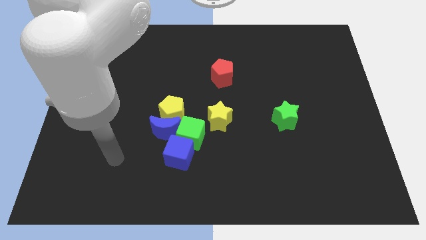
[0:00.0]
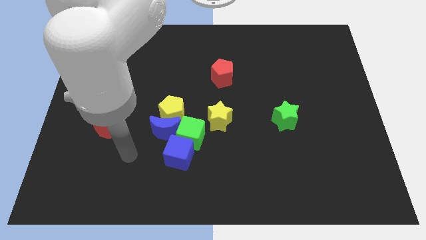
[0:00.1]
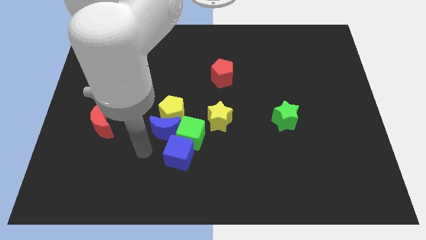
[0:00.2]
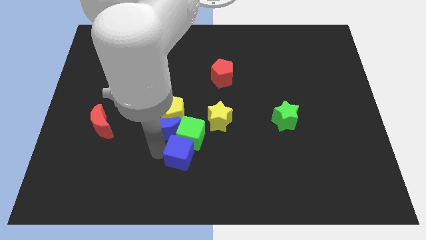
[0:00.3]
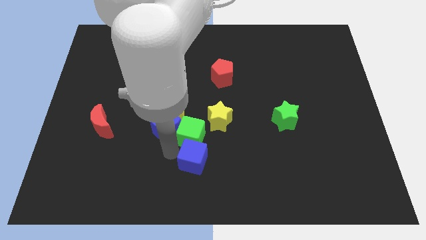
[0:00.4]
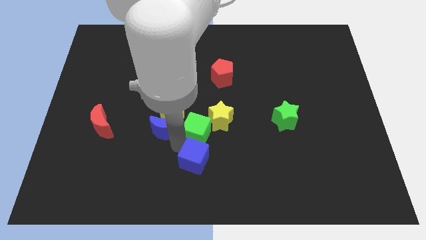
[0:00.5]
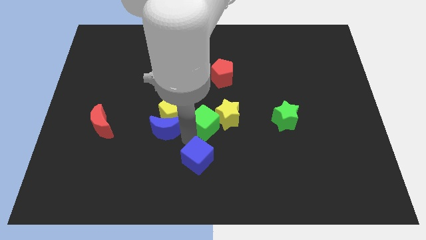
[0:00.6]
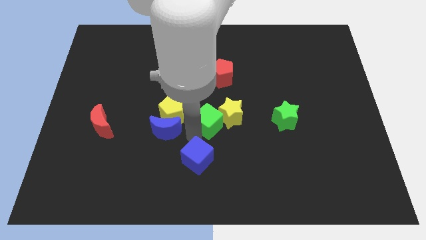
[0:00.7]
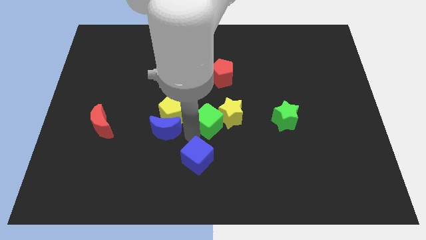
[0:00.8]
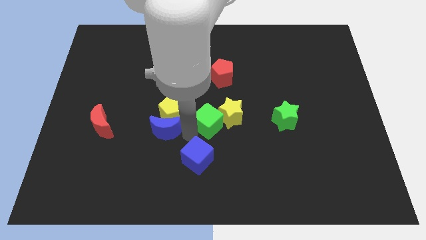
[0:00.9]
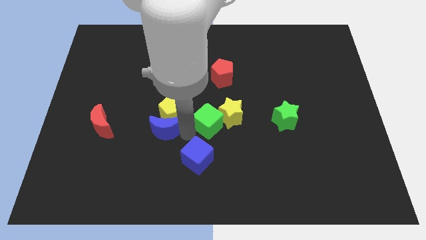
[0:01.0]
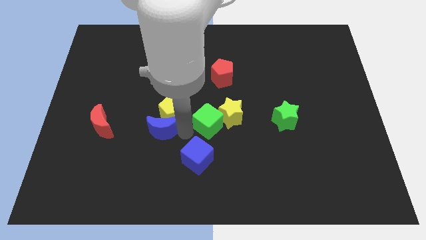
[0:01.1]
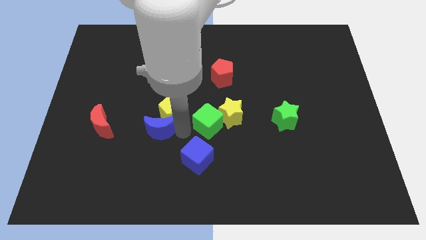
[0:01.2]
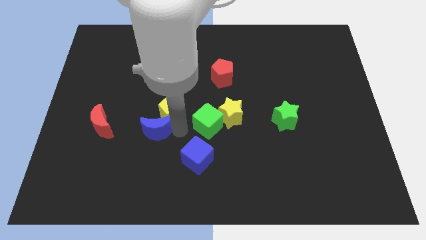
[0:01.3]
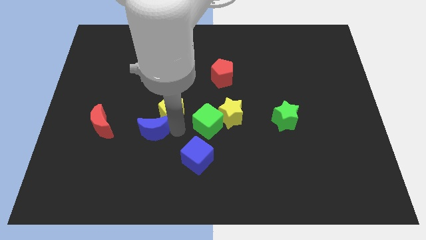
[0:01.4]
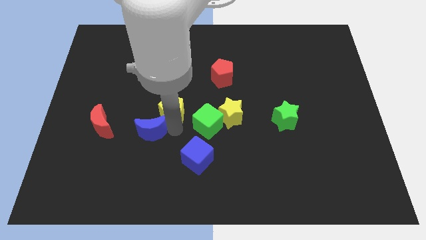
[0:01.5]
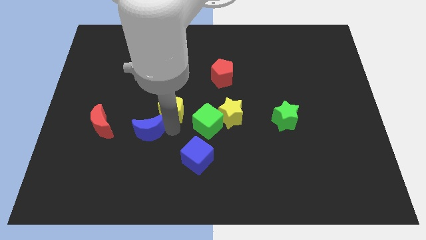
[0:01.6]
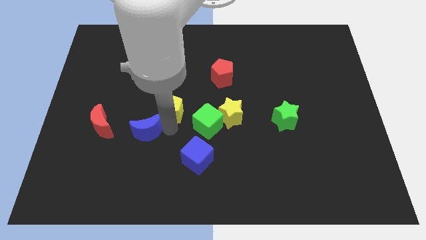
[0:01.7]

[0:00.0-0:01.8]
pull the blue moon apart from the clump

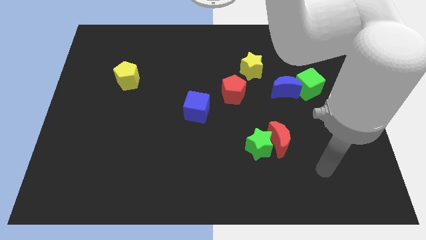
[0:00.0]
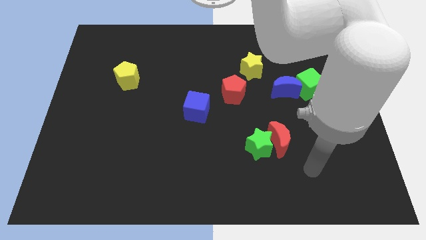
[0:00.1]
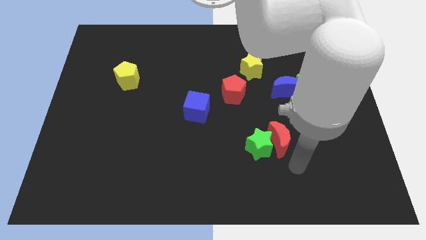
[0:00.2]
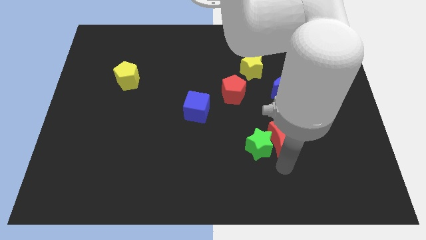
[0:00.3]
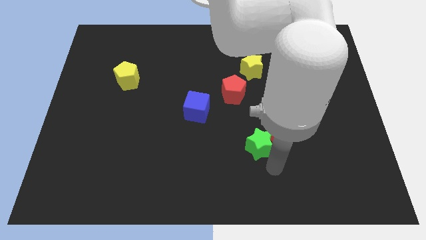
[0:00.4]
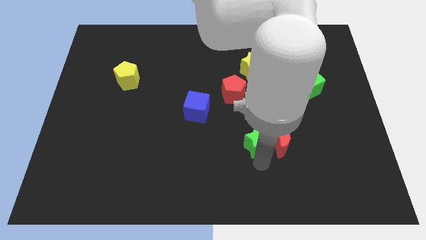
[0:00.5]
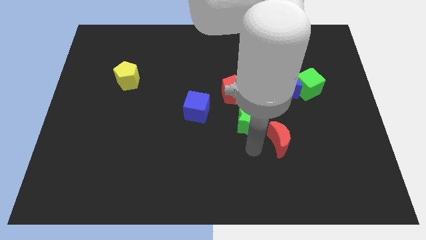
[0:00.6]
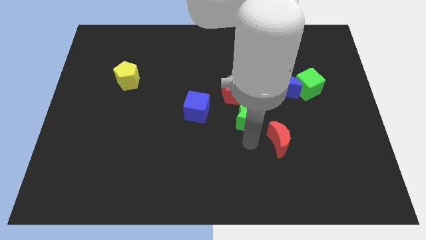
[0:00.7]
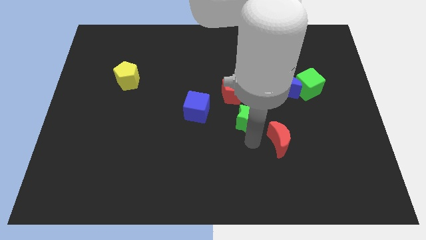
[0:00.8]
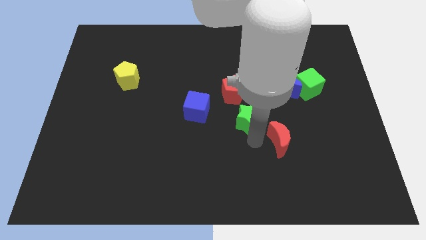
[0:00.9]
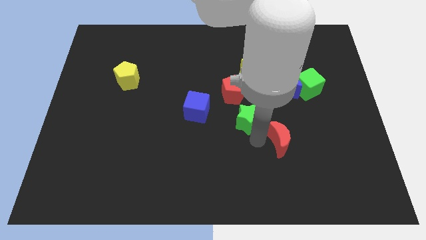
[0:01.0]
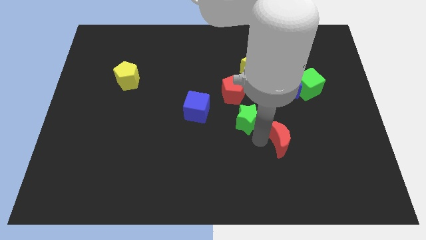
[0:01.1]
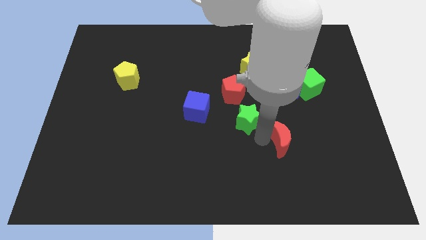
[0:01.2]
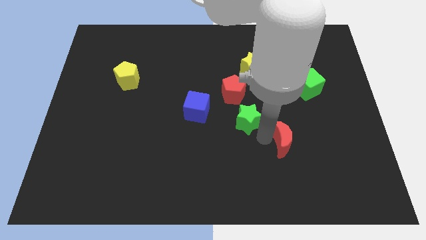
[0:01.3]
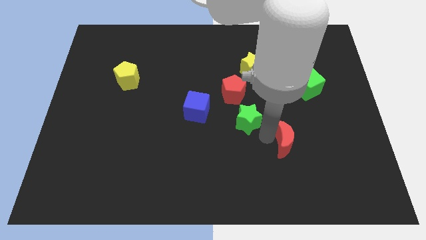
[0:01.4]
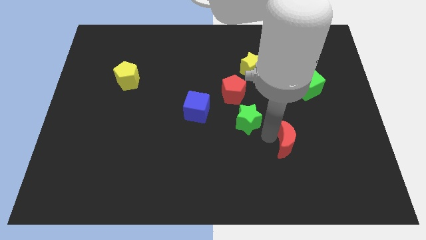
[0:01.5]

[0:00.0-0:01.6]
separate the red moon from the green star

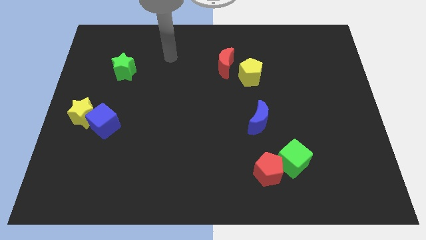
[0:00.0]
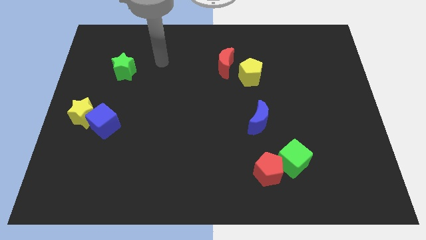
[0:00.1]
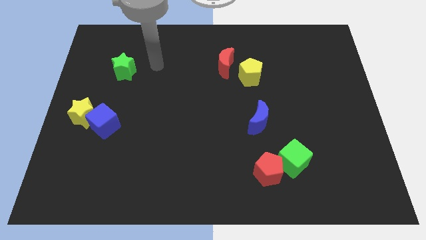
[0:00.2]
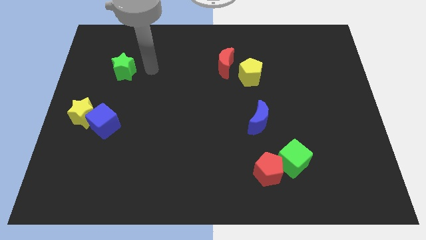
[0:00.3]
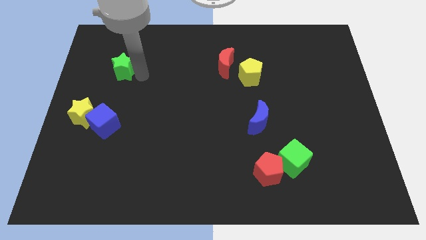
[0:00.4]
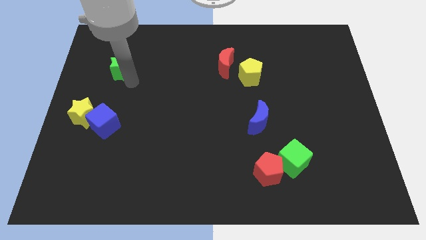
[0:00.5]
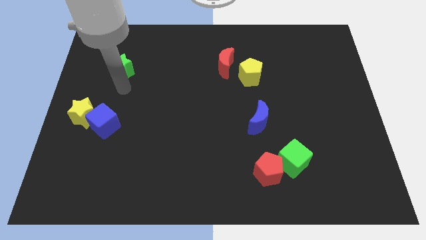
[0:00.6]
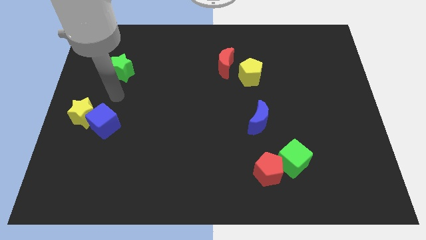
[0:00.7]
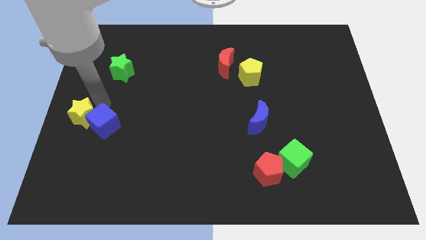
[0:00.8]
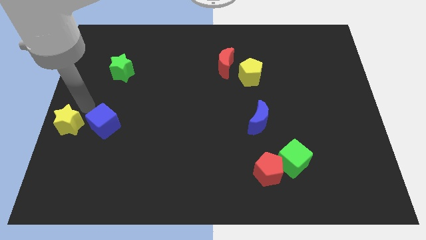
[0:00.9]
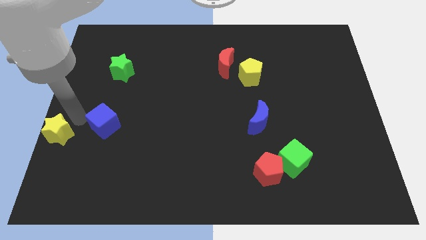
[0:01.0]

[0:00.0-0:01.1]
move the blue cube away from the yellow star

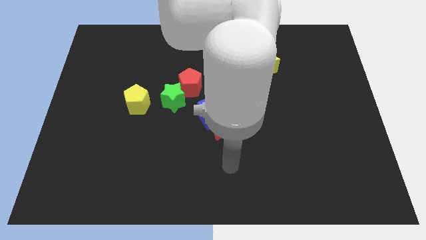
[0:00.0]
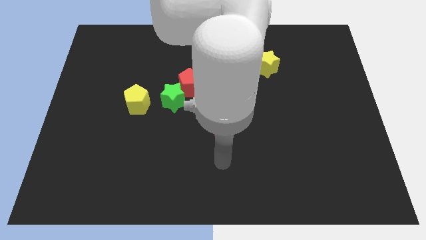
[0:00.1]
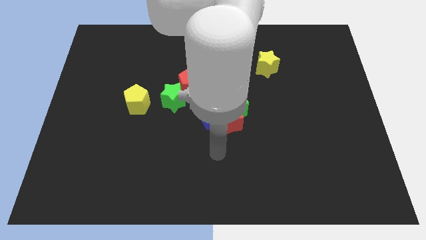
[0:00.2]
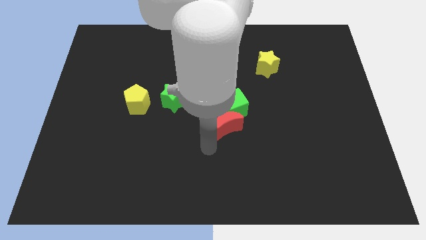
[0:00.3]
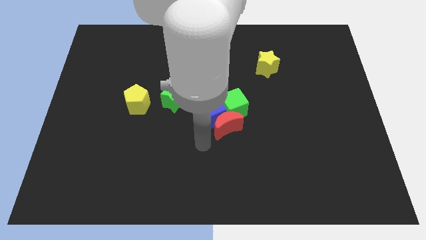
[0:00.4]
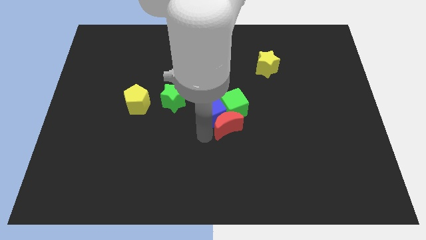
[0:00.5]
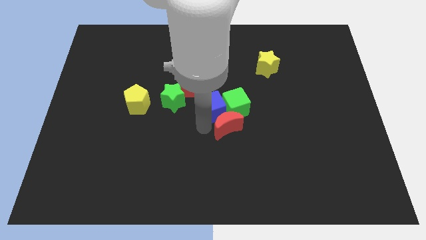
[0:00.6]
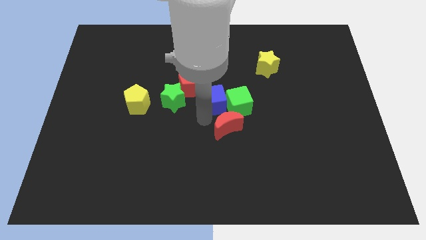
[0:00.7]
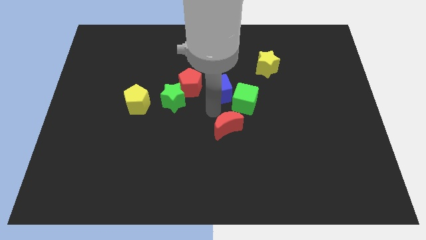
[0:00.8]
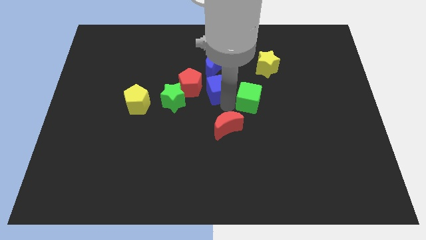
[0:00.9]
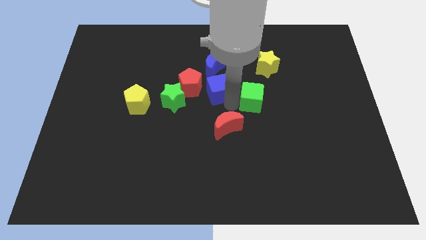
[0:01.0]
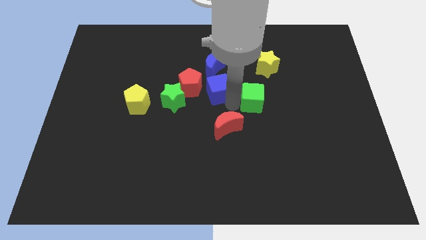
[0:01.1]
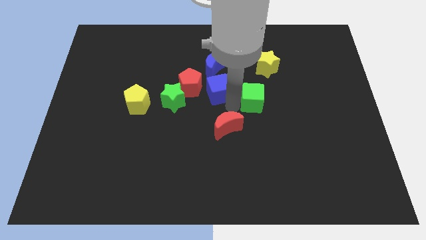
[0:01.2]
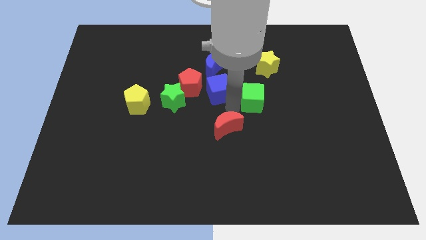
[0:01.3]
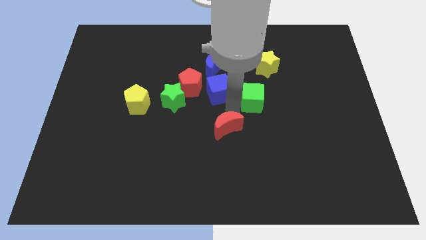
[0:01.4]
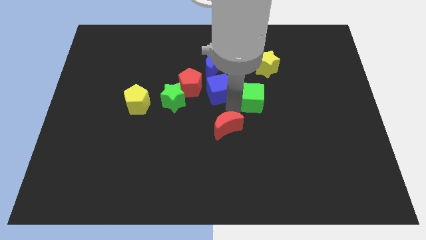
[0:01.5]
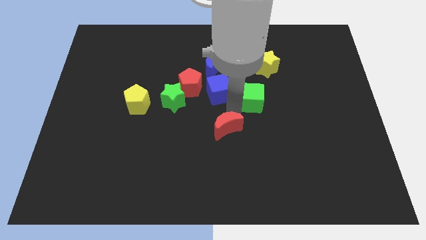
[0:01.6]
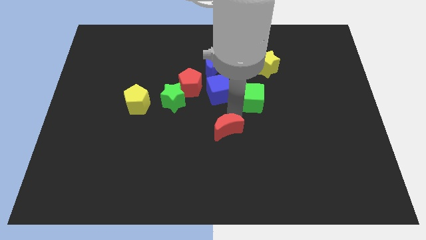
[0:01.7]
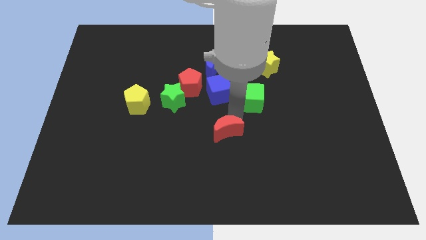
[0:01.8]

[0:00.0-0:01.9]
pull the red moon apart from the blue cube and green cube

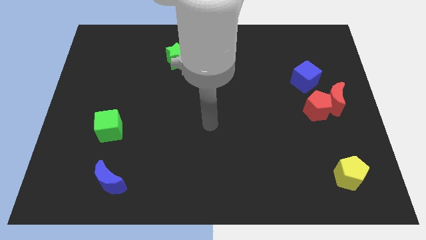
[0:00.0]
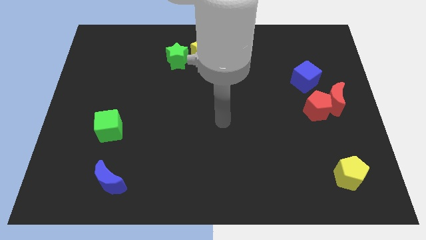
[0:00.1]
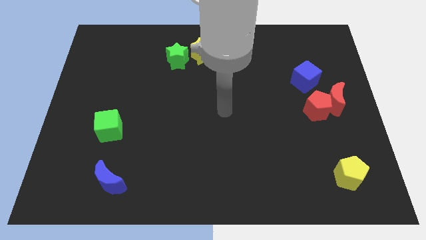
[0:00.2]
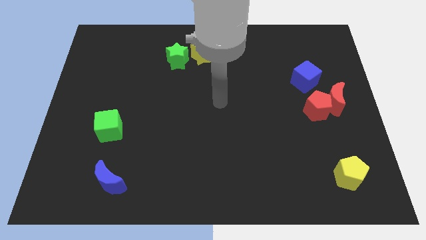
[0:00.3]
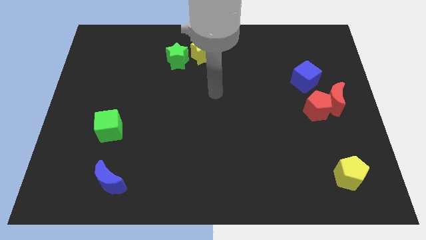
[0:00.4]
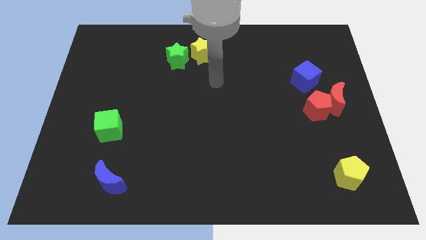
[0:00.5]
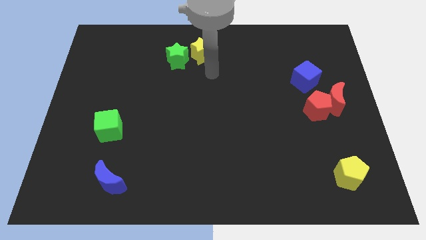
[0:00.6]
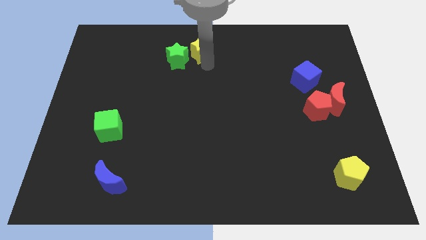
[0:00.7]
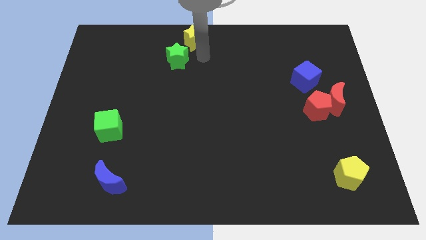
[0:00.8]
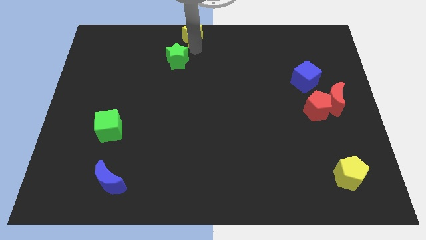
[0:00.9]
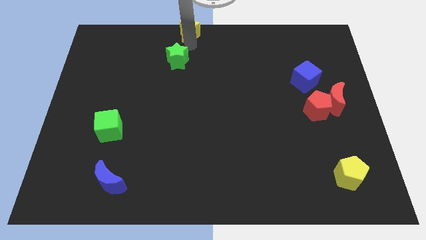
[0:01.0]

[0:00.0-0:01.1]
separate the green star from the yellow star

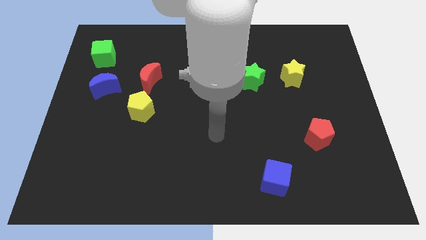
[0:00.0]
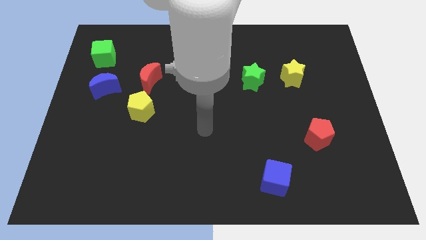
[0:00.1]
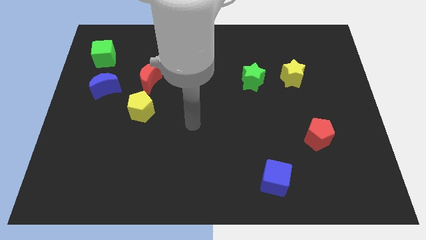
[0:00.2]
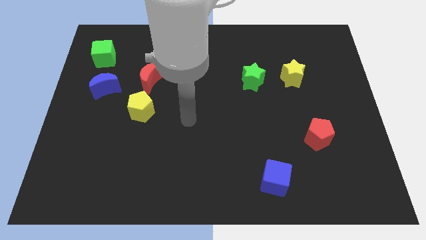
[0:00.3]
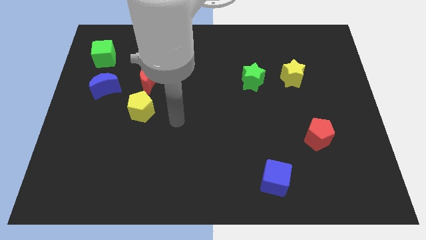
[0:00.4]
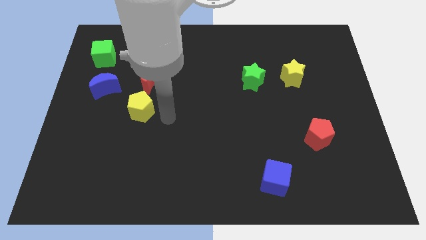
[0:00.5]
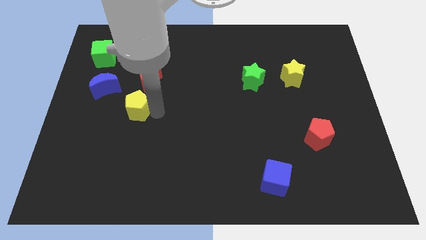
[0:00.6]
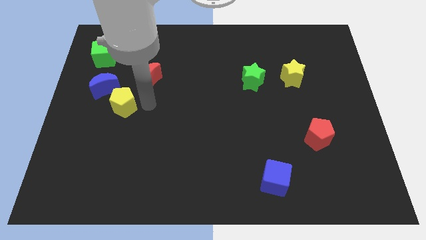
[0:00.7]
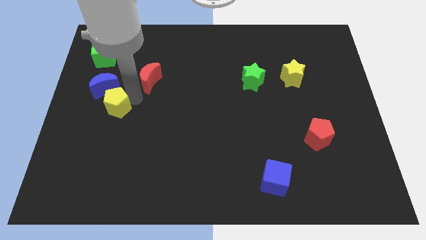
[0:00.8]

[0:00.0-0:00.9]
move the red moon away from the yellow pentagon

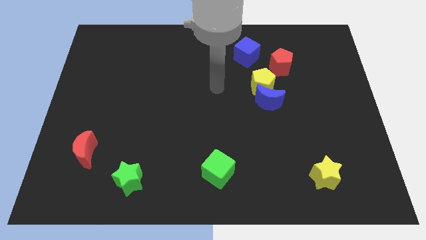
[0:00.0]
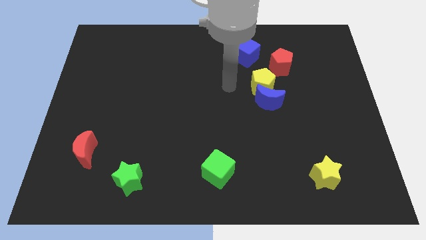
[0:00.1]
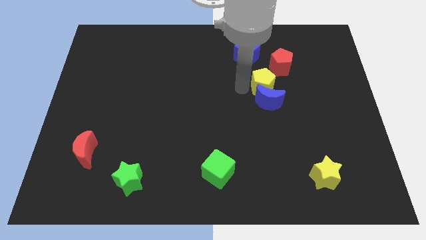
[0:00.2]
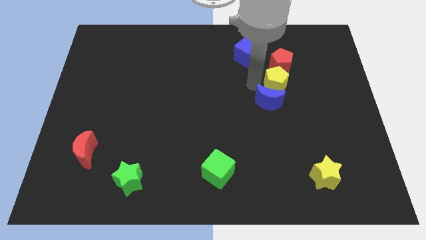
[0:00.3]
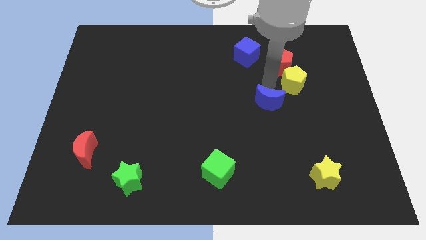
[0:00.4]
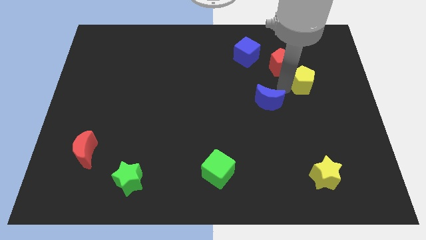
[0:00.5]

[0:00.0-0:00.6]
pull the blue moon apart from the yellow pentagon

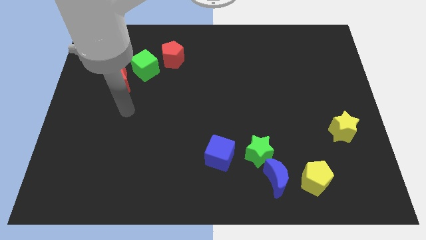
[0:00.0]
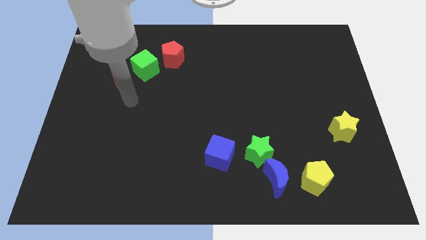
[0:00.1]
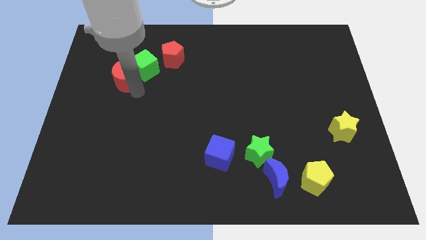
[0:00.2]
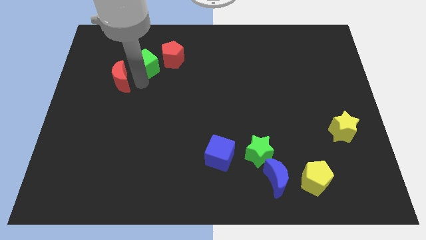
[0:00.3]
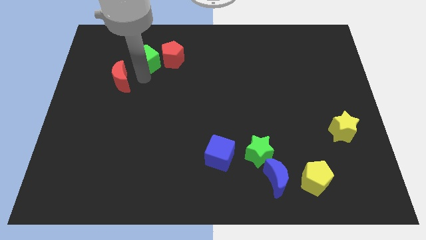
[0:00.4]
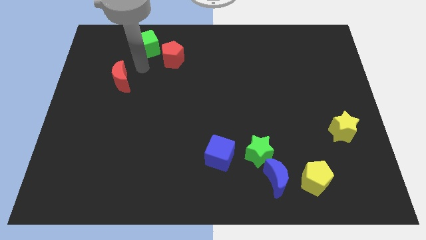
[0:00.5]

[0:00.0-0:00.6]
move the red moon away from the green cube
